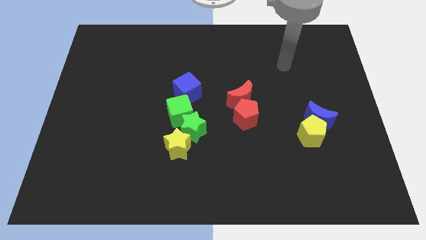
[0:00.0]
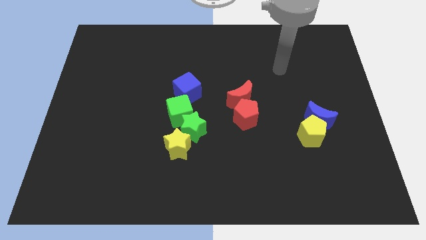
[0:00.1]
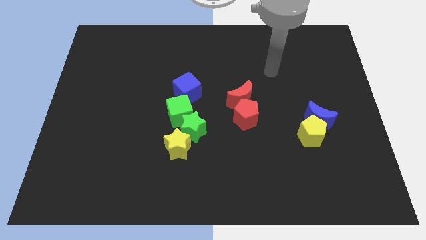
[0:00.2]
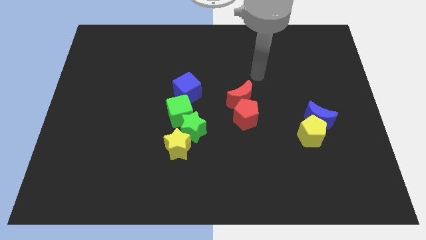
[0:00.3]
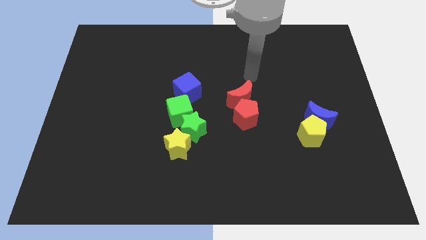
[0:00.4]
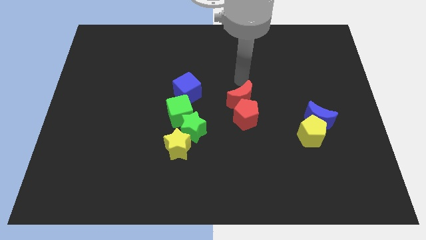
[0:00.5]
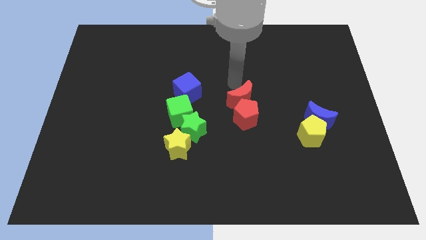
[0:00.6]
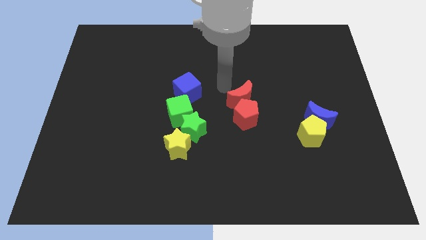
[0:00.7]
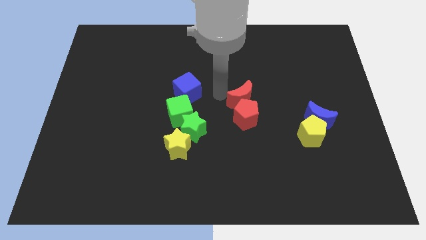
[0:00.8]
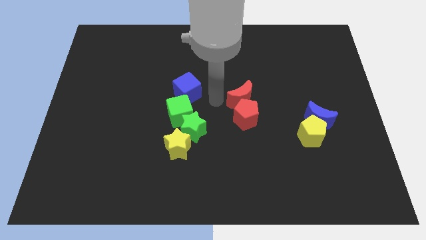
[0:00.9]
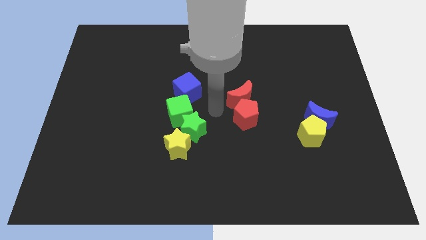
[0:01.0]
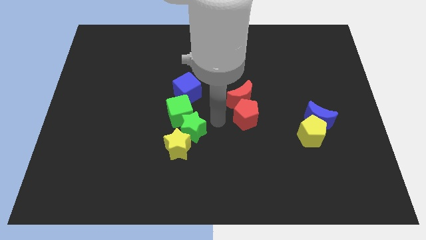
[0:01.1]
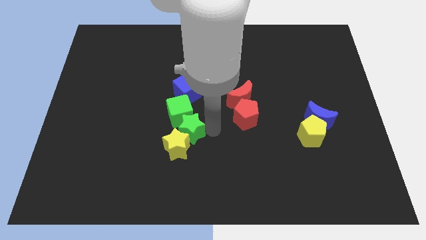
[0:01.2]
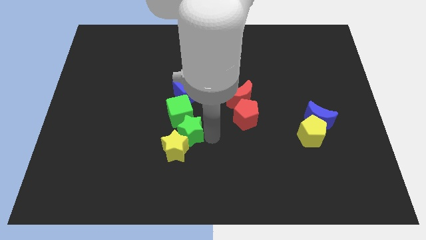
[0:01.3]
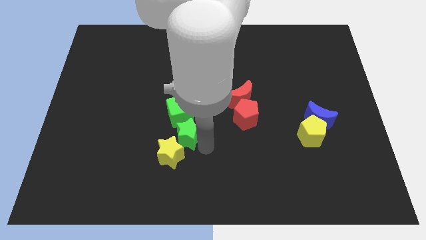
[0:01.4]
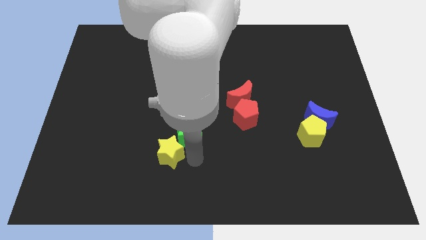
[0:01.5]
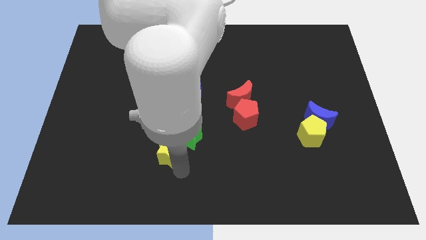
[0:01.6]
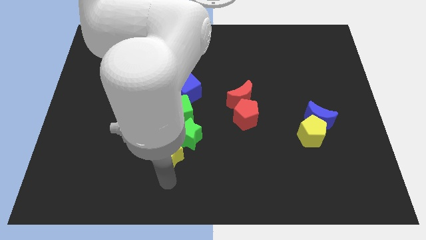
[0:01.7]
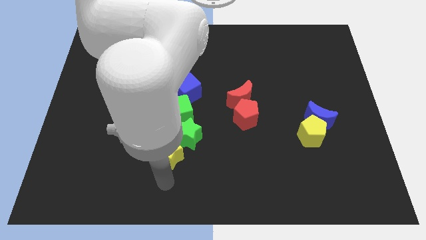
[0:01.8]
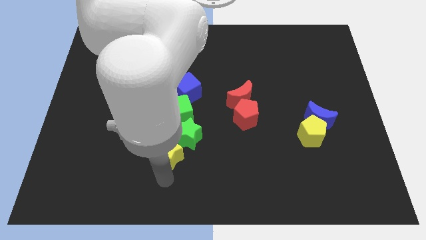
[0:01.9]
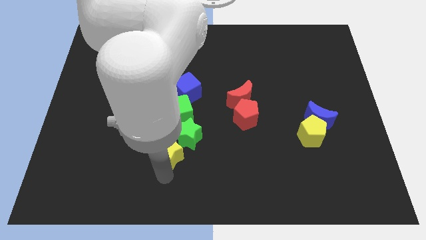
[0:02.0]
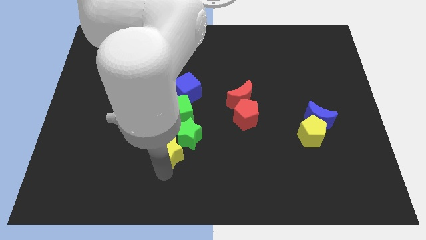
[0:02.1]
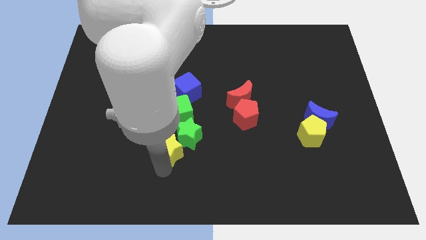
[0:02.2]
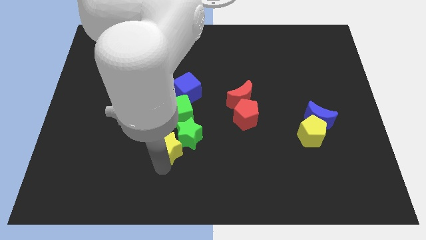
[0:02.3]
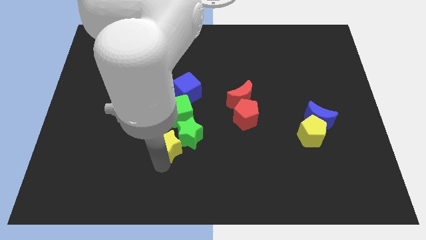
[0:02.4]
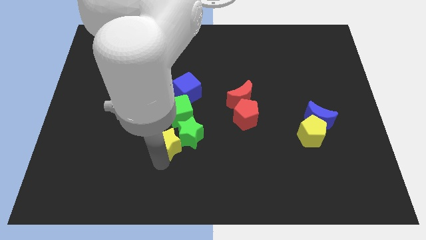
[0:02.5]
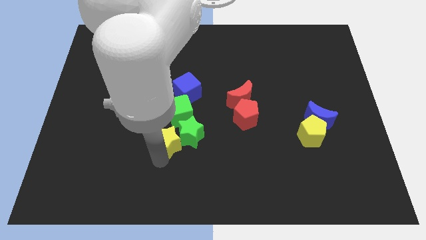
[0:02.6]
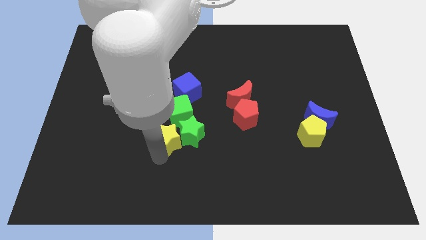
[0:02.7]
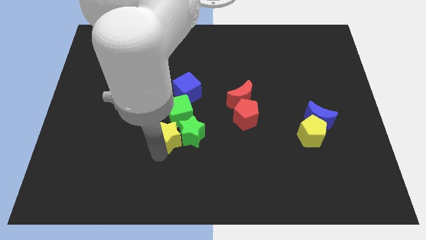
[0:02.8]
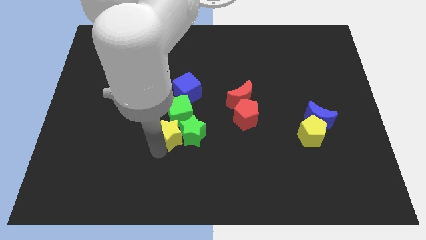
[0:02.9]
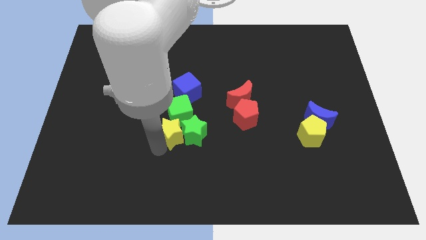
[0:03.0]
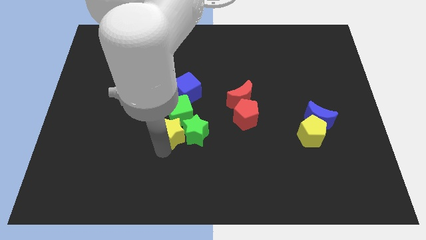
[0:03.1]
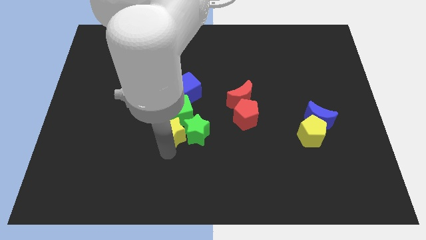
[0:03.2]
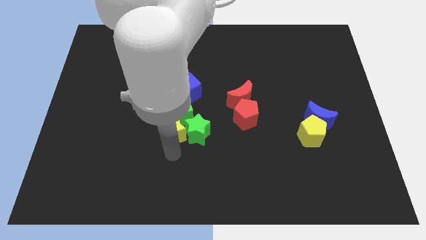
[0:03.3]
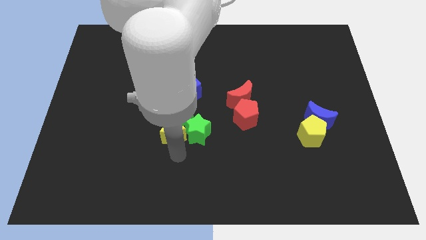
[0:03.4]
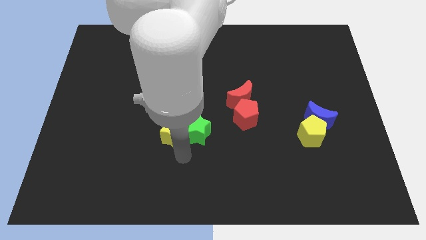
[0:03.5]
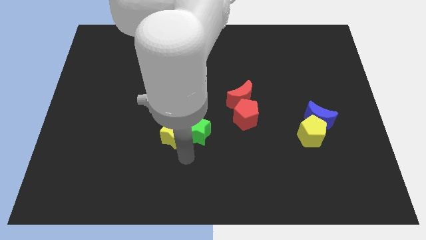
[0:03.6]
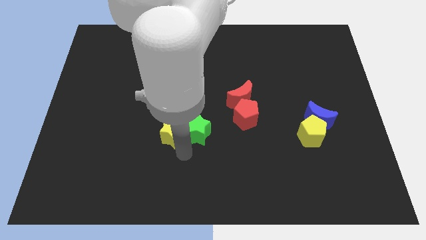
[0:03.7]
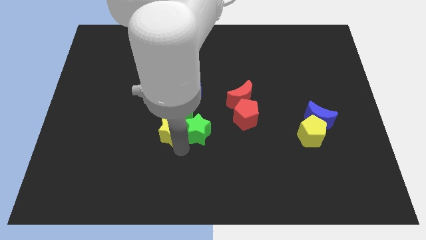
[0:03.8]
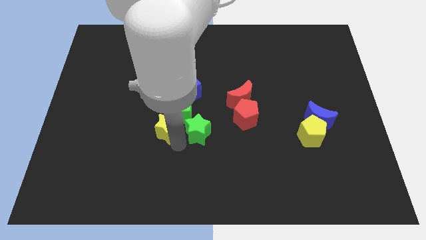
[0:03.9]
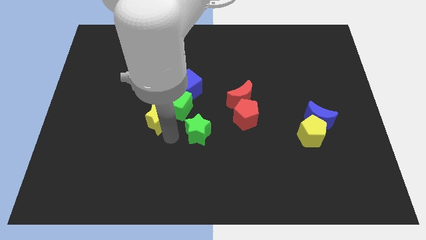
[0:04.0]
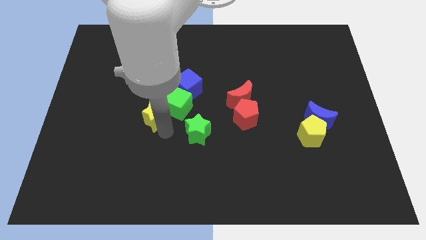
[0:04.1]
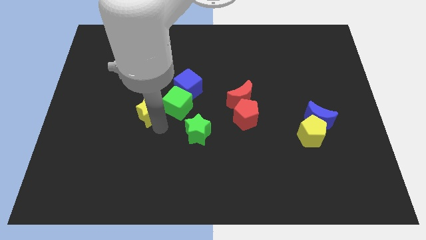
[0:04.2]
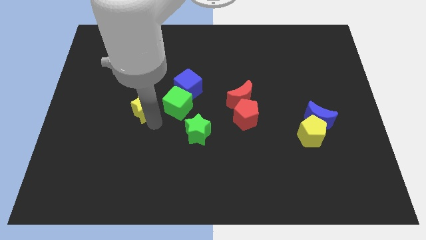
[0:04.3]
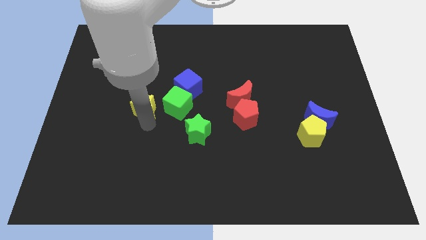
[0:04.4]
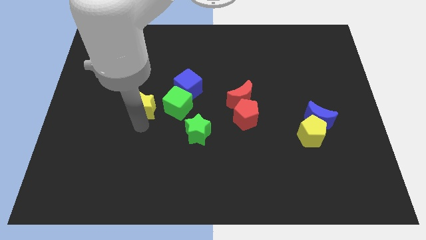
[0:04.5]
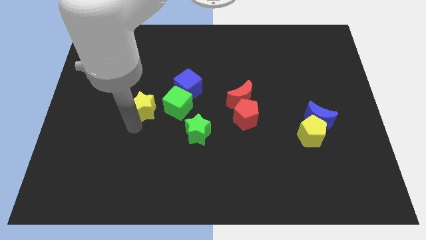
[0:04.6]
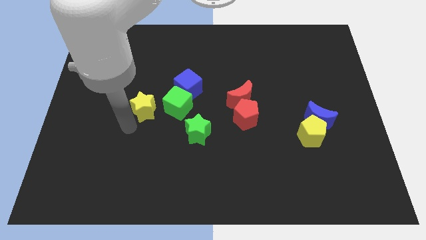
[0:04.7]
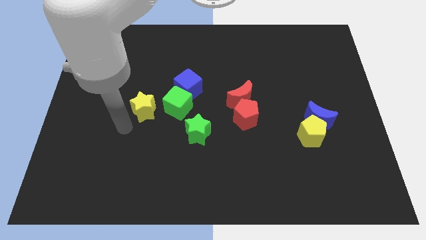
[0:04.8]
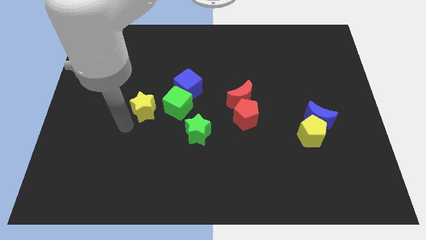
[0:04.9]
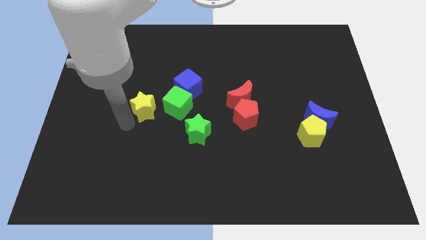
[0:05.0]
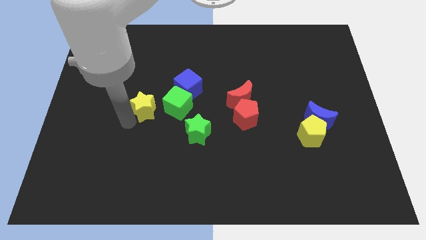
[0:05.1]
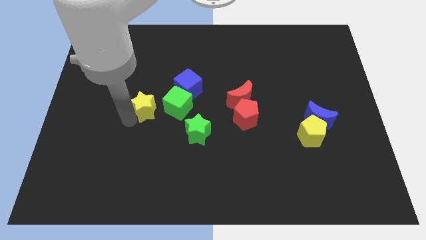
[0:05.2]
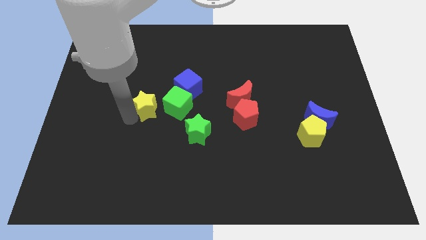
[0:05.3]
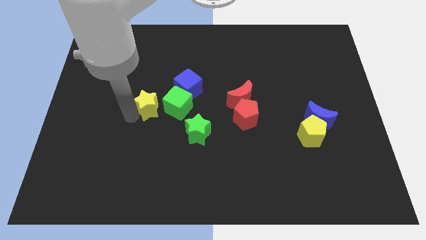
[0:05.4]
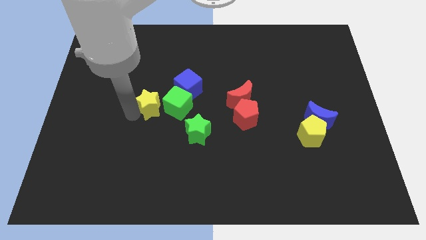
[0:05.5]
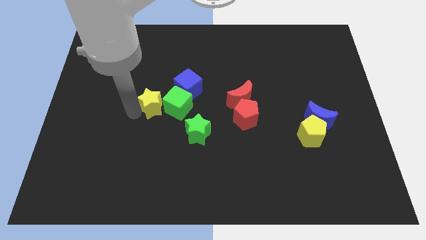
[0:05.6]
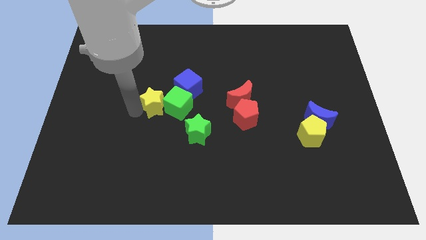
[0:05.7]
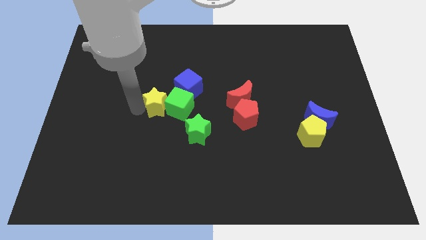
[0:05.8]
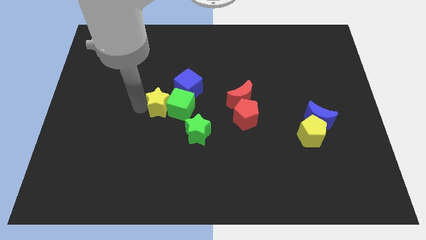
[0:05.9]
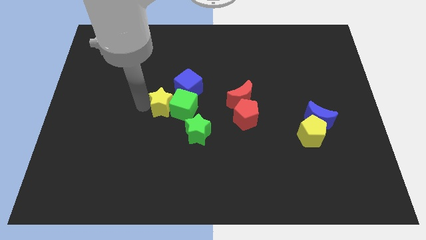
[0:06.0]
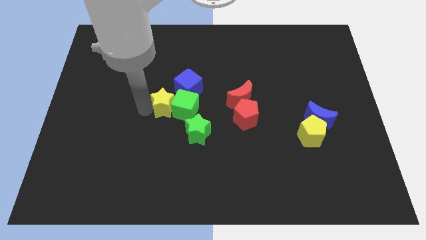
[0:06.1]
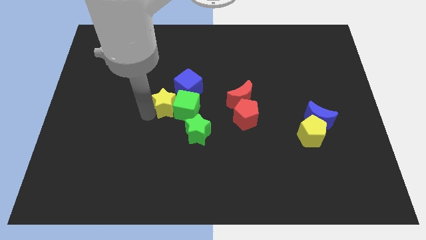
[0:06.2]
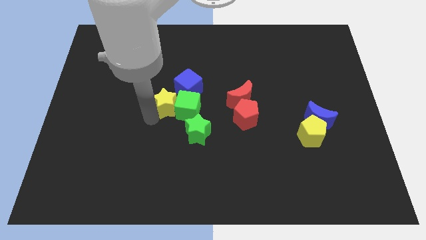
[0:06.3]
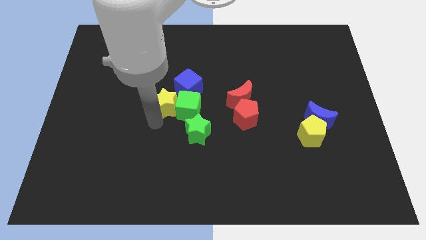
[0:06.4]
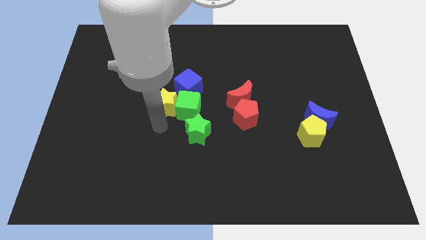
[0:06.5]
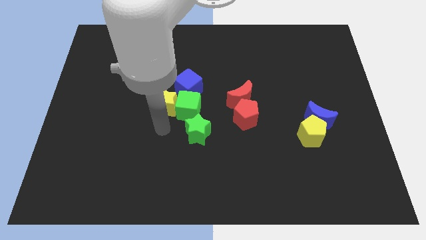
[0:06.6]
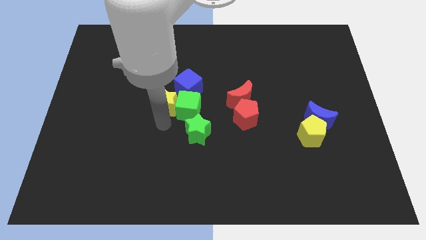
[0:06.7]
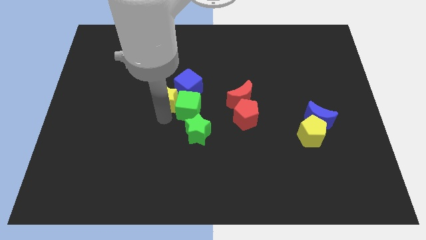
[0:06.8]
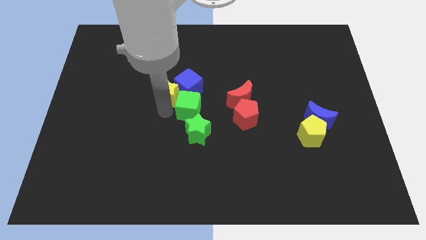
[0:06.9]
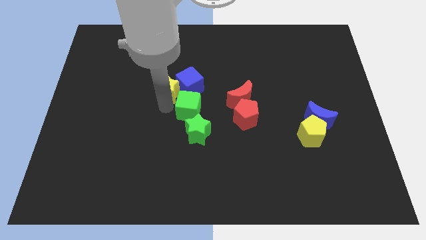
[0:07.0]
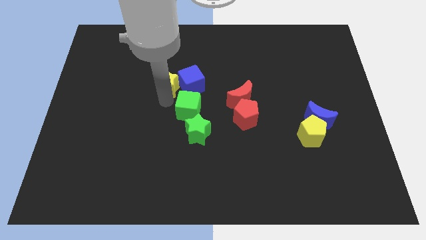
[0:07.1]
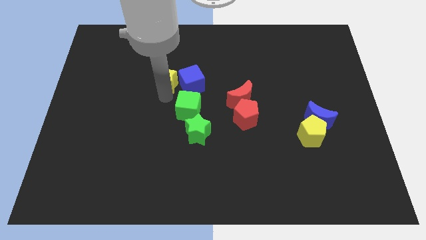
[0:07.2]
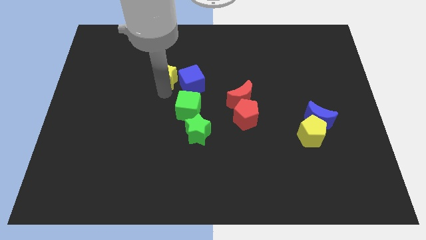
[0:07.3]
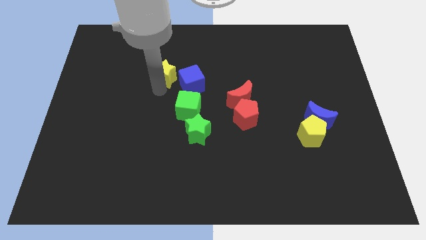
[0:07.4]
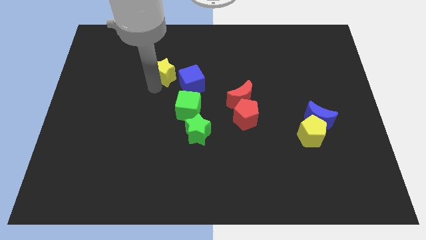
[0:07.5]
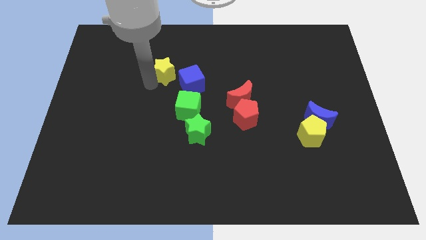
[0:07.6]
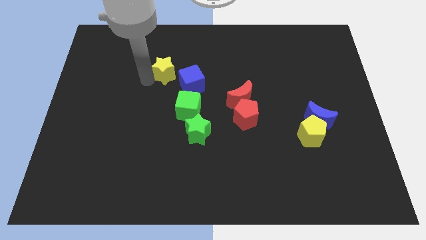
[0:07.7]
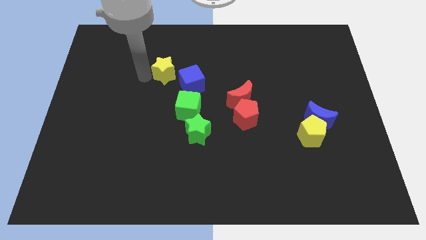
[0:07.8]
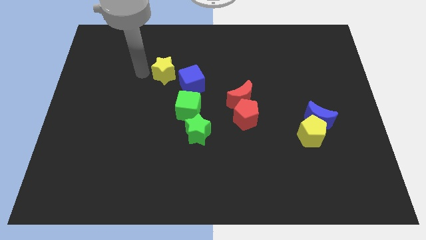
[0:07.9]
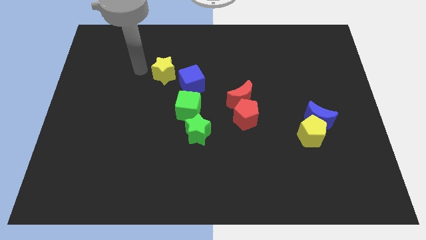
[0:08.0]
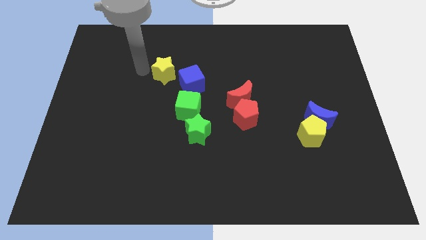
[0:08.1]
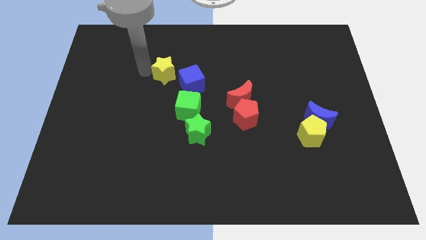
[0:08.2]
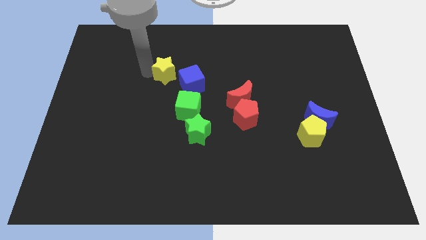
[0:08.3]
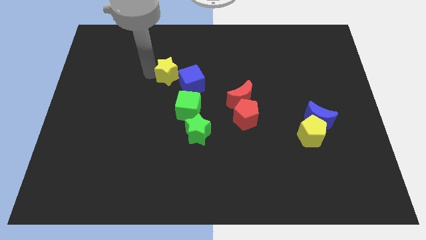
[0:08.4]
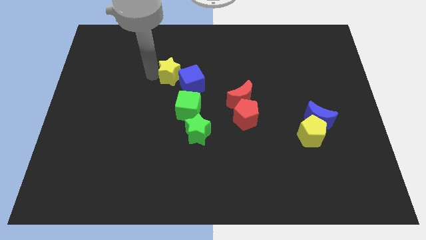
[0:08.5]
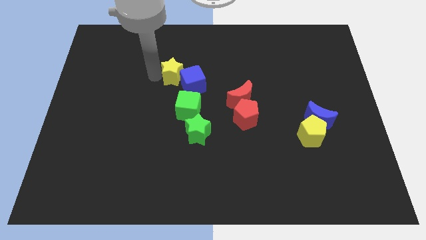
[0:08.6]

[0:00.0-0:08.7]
push the yellow star to the top side of the green cube
